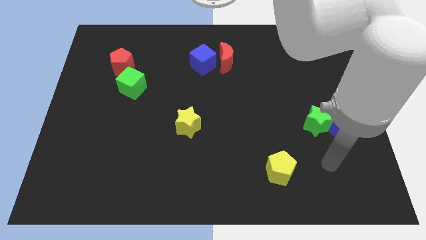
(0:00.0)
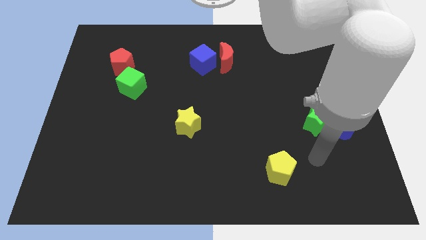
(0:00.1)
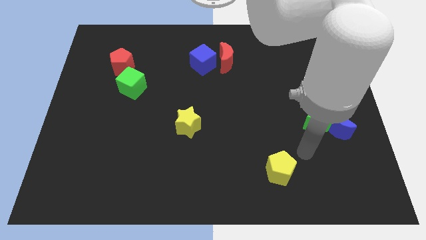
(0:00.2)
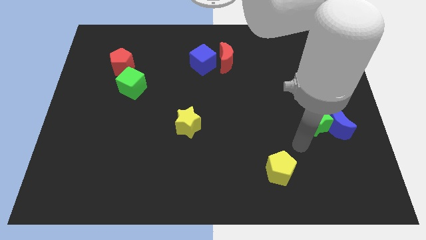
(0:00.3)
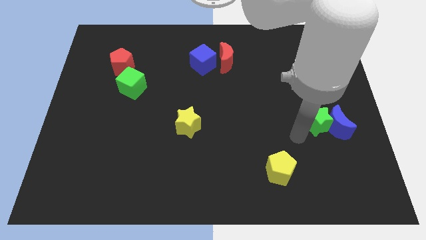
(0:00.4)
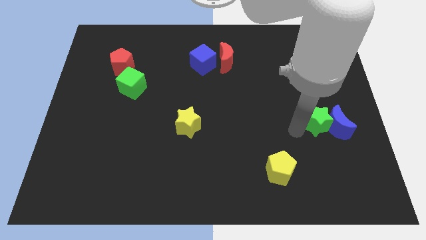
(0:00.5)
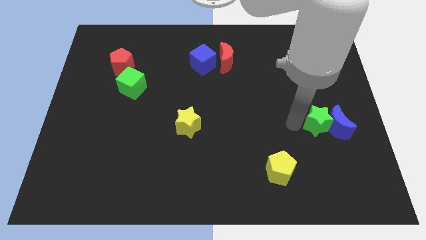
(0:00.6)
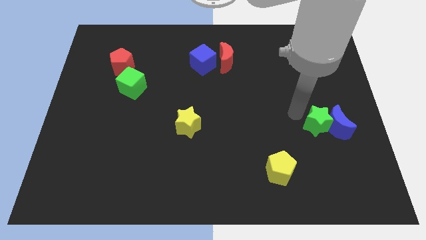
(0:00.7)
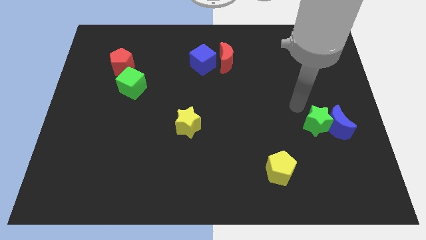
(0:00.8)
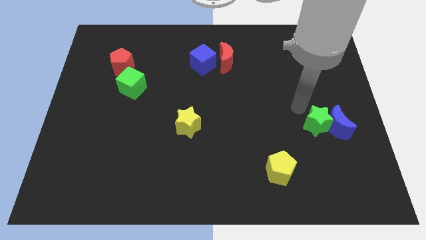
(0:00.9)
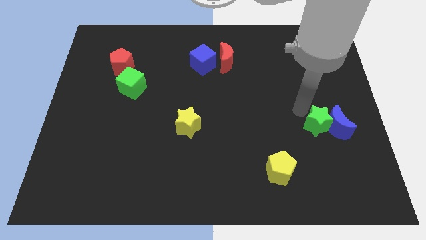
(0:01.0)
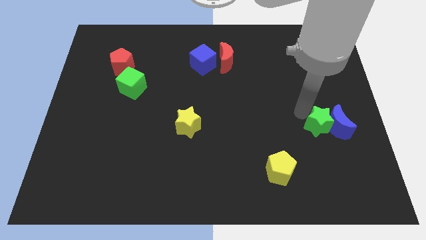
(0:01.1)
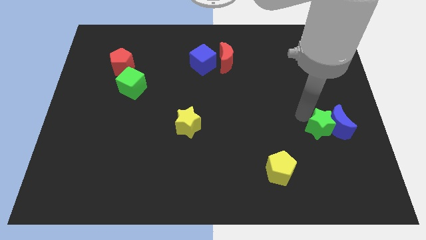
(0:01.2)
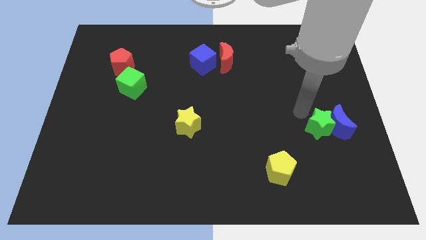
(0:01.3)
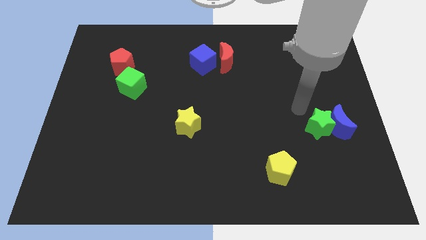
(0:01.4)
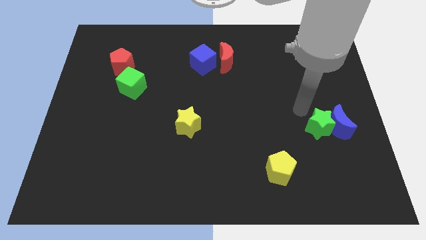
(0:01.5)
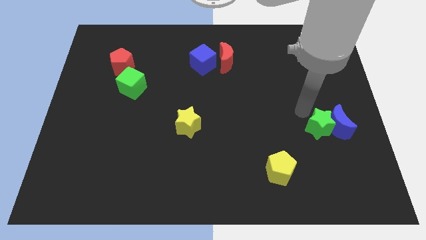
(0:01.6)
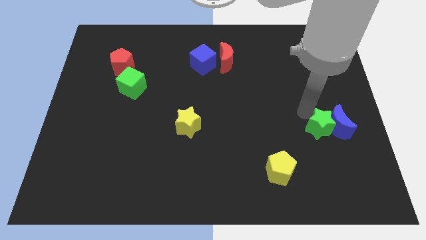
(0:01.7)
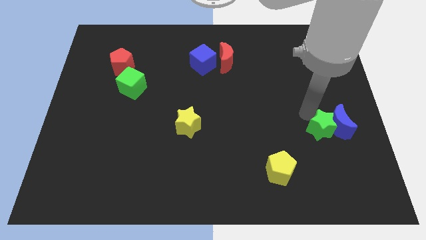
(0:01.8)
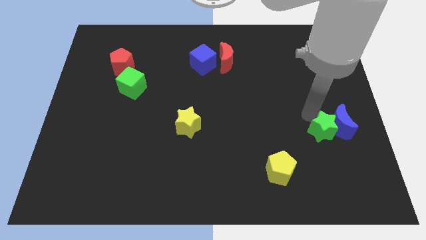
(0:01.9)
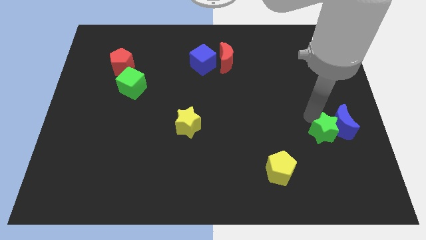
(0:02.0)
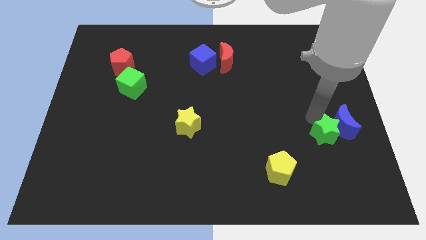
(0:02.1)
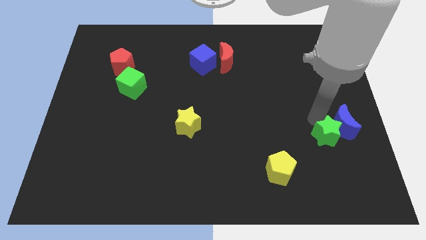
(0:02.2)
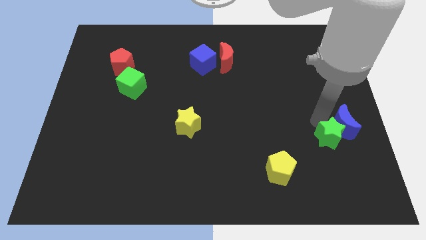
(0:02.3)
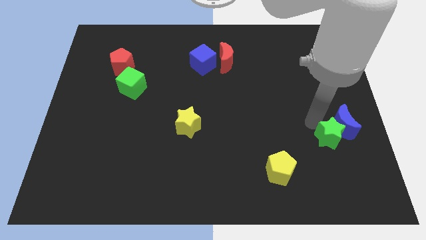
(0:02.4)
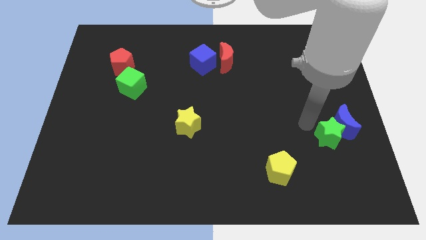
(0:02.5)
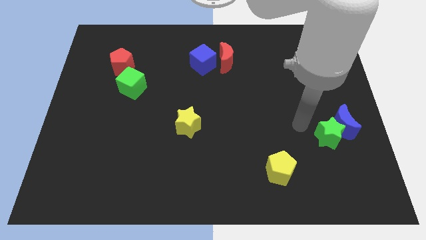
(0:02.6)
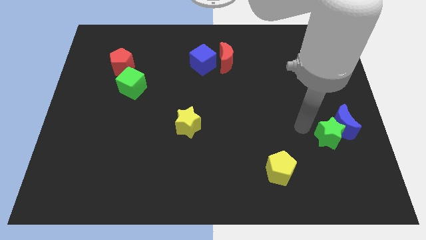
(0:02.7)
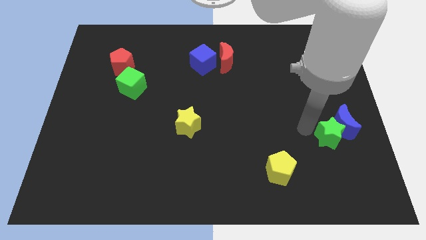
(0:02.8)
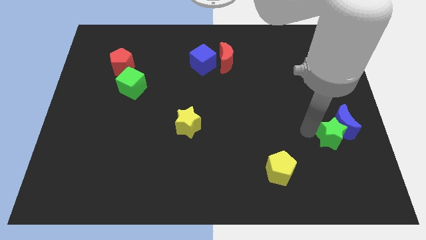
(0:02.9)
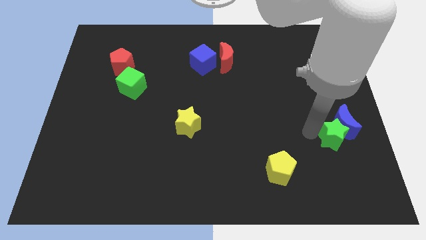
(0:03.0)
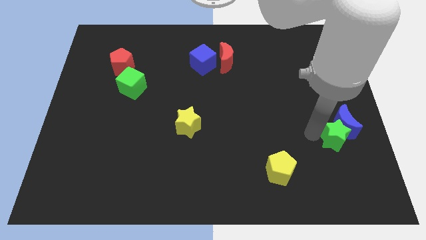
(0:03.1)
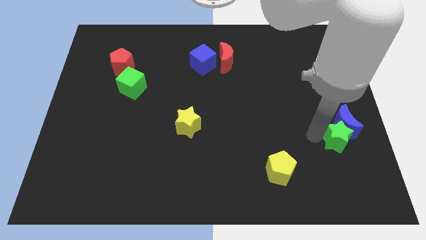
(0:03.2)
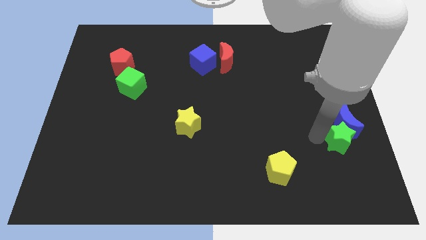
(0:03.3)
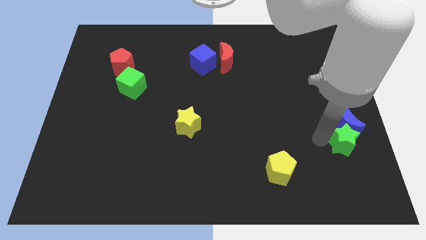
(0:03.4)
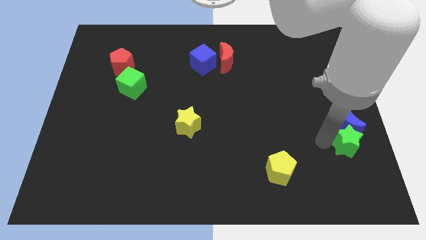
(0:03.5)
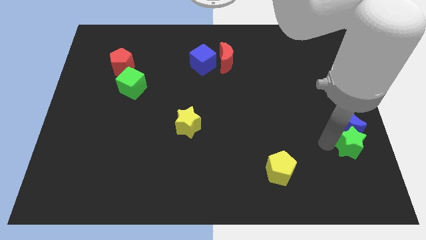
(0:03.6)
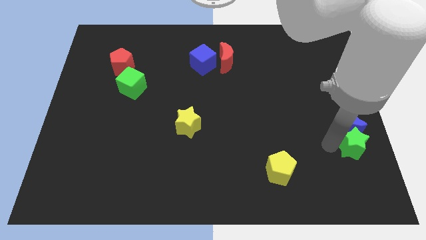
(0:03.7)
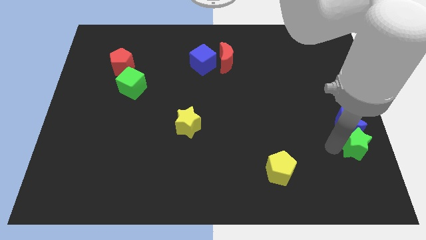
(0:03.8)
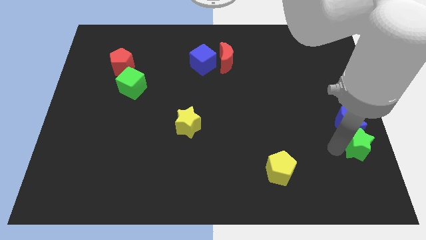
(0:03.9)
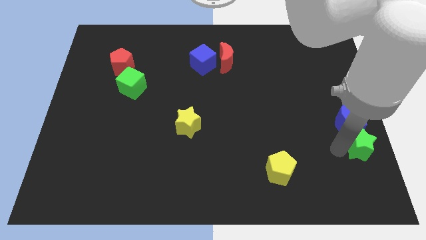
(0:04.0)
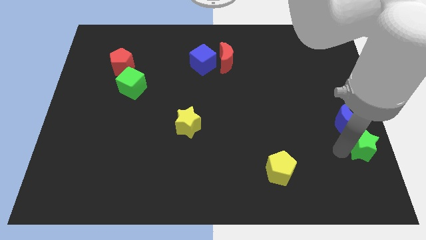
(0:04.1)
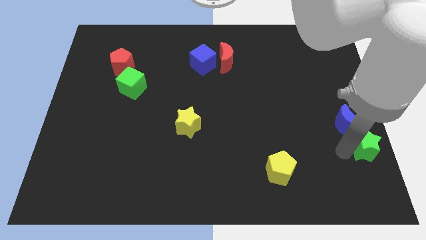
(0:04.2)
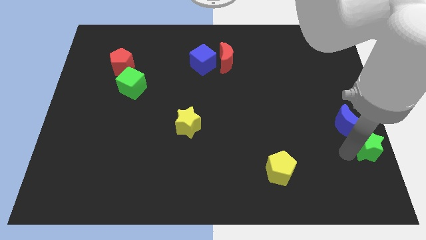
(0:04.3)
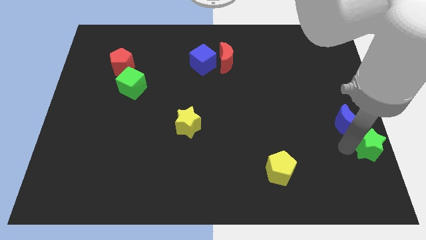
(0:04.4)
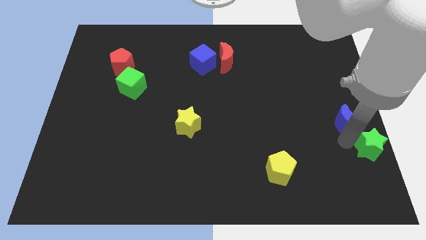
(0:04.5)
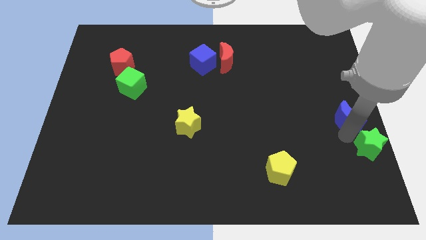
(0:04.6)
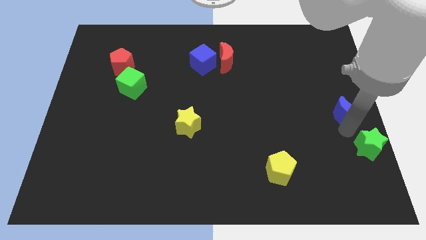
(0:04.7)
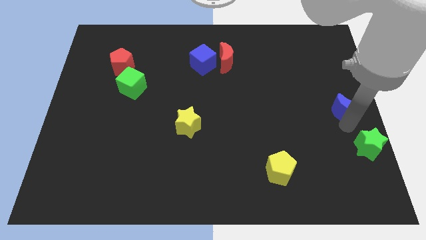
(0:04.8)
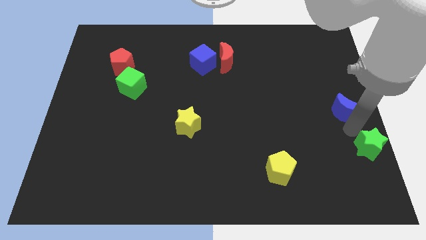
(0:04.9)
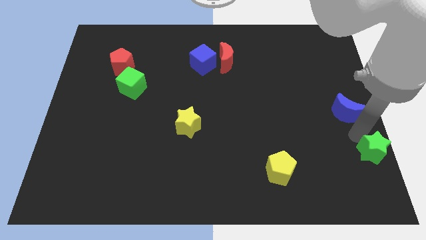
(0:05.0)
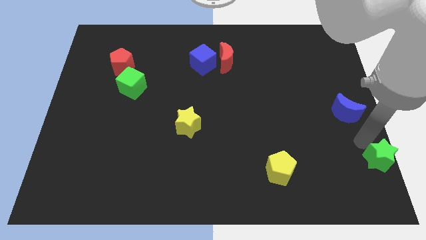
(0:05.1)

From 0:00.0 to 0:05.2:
slide the green star to the bottom right corner
